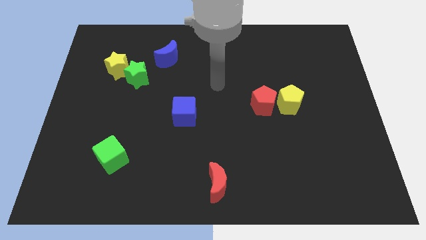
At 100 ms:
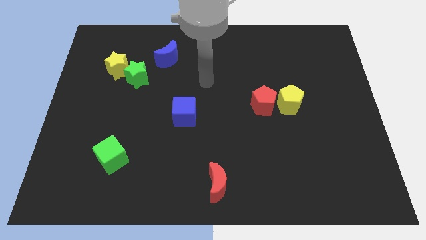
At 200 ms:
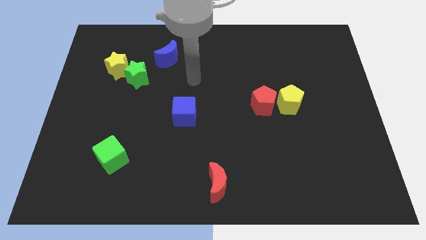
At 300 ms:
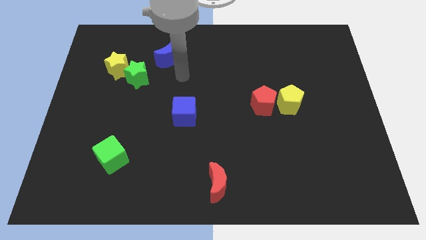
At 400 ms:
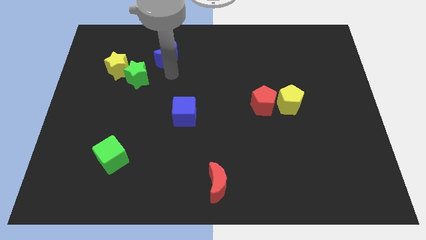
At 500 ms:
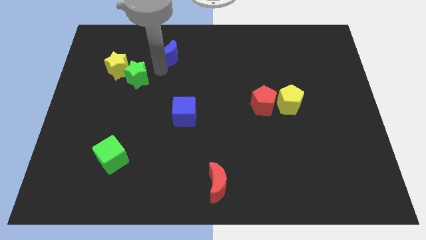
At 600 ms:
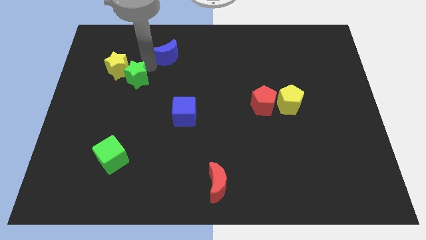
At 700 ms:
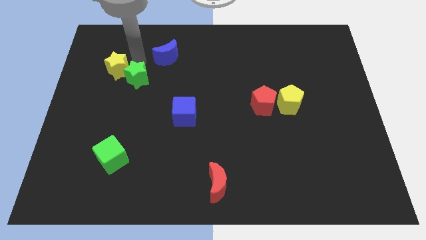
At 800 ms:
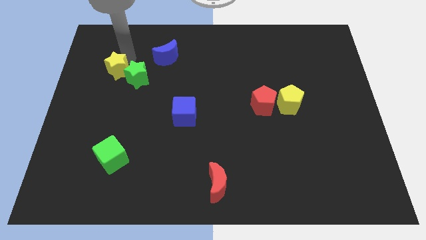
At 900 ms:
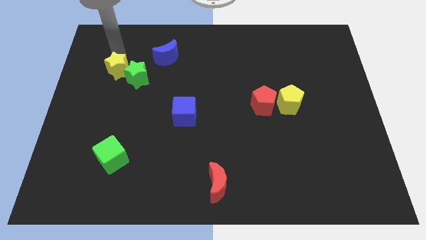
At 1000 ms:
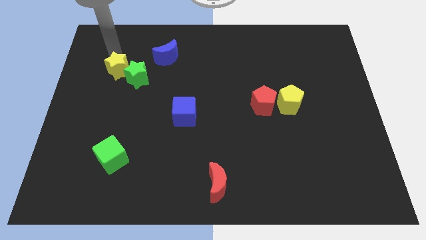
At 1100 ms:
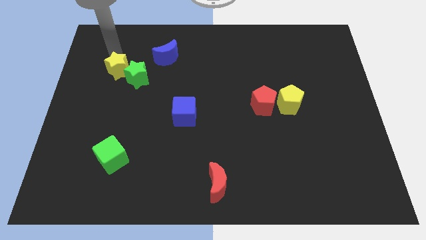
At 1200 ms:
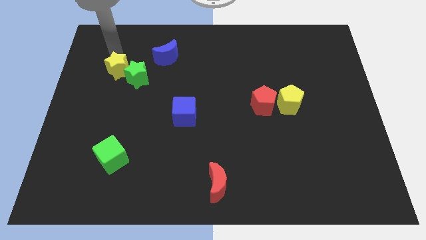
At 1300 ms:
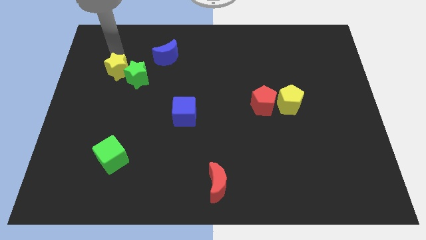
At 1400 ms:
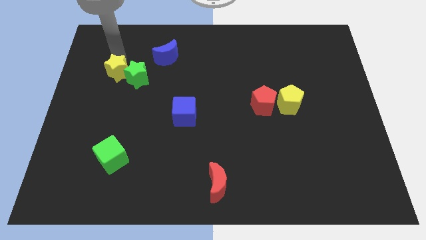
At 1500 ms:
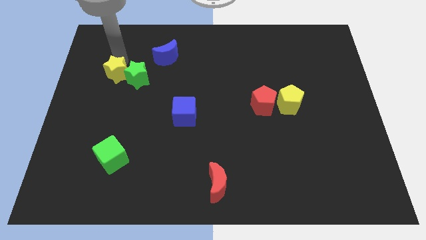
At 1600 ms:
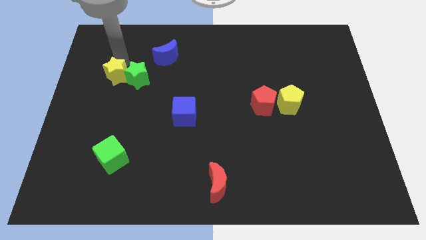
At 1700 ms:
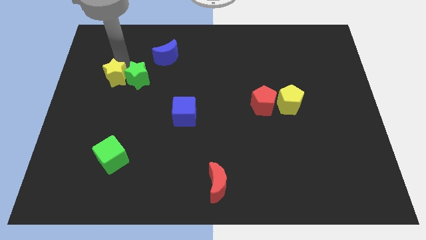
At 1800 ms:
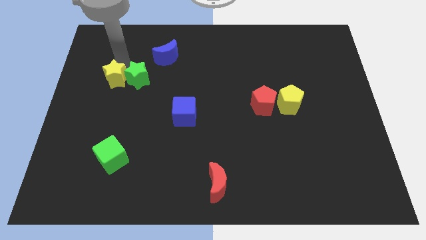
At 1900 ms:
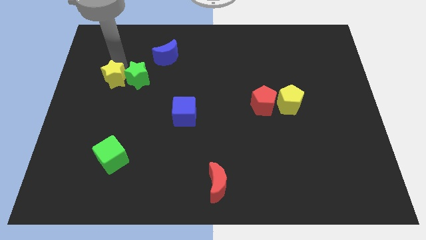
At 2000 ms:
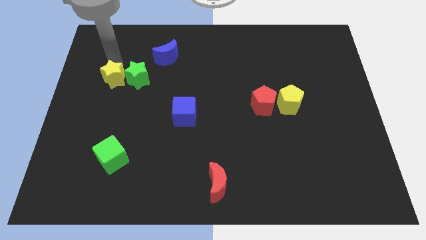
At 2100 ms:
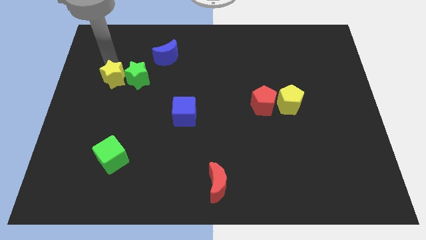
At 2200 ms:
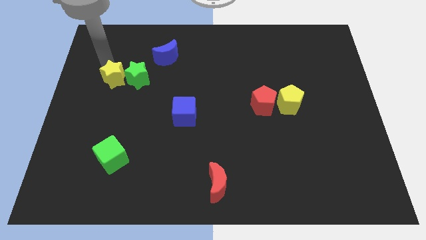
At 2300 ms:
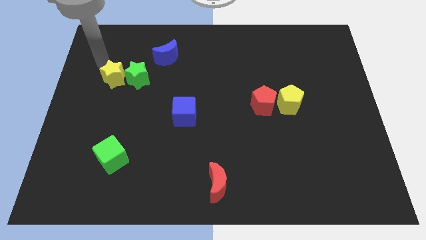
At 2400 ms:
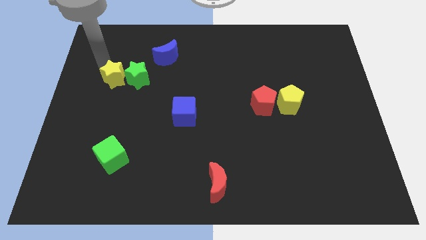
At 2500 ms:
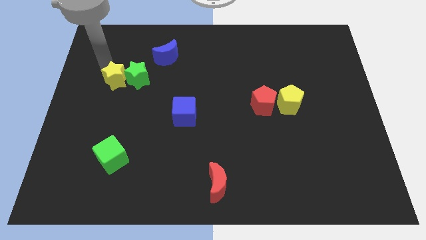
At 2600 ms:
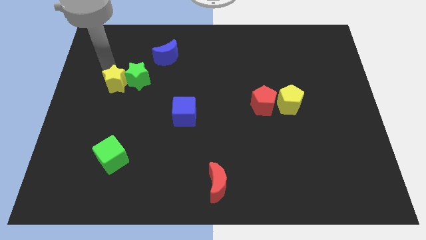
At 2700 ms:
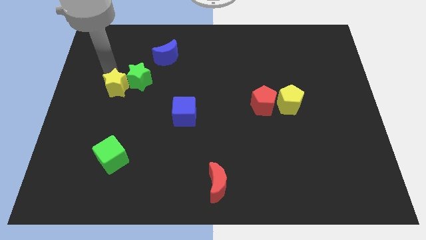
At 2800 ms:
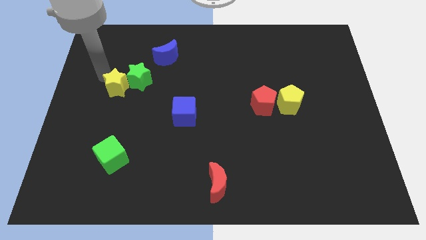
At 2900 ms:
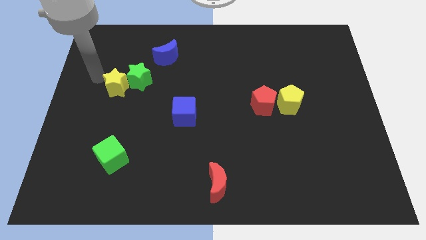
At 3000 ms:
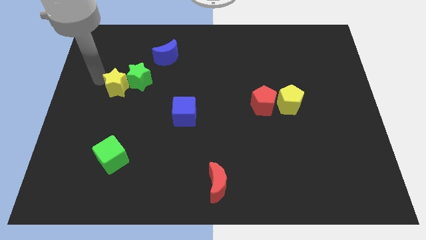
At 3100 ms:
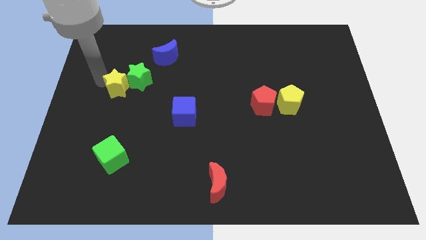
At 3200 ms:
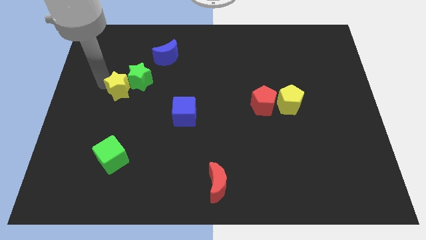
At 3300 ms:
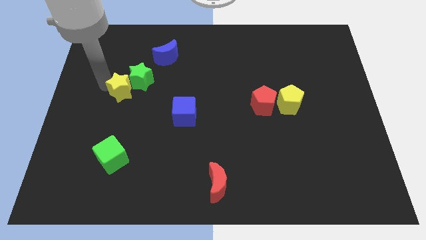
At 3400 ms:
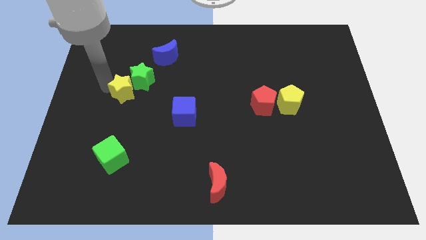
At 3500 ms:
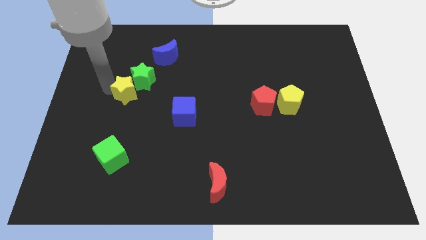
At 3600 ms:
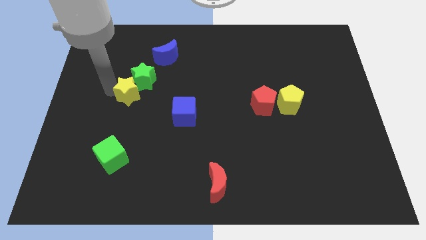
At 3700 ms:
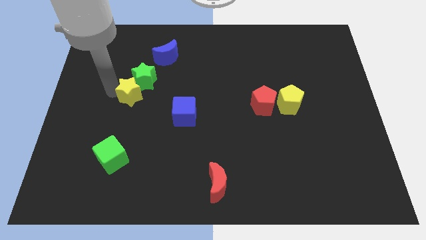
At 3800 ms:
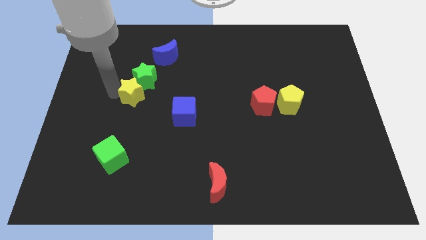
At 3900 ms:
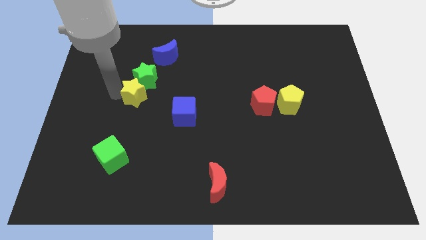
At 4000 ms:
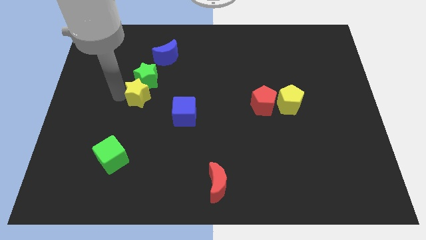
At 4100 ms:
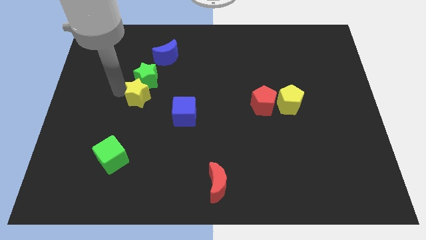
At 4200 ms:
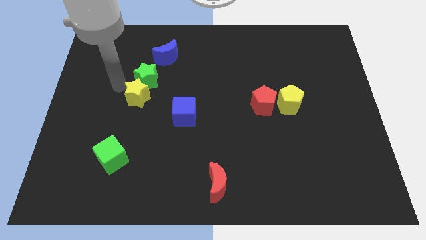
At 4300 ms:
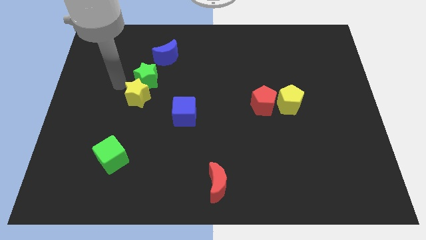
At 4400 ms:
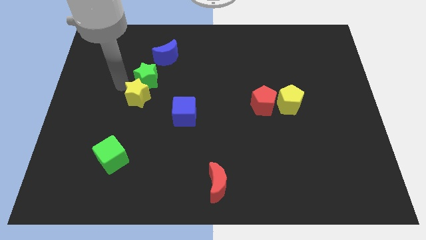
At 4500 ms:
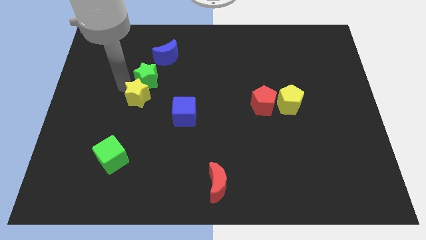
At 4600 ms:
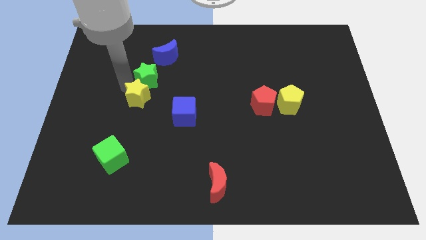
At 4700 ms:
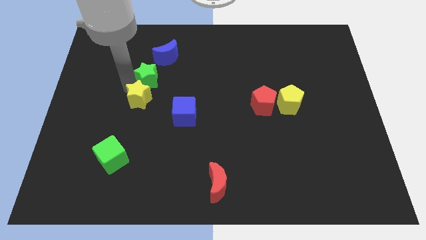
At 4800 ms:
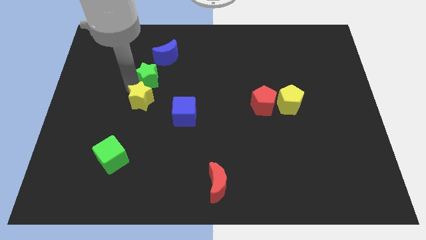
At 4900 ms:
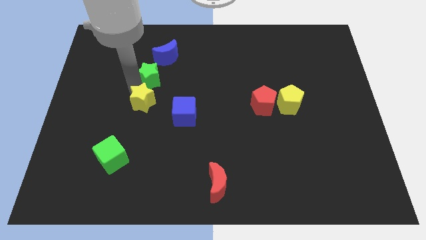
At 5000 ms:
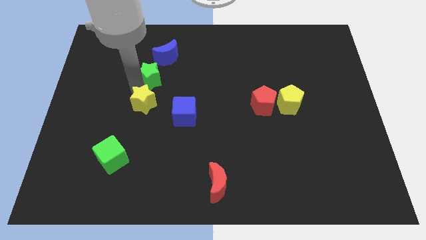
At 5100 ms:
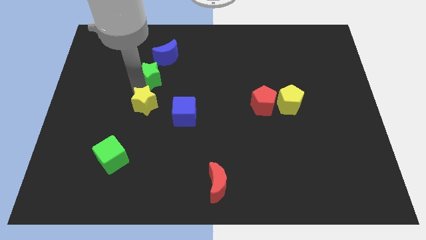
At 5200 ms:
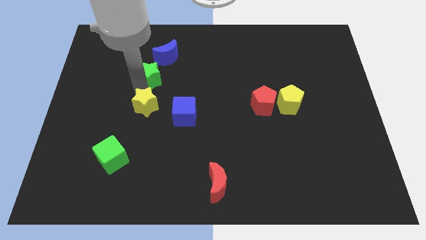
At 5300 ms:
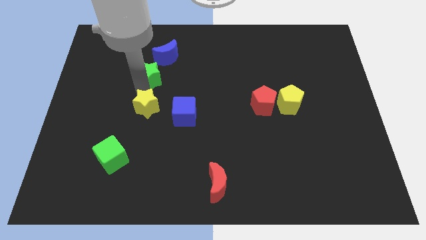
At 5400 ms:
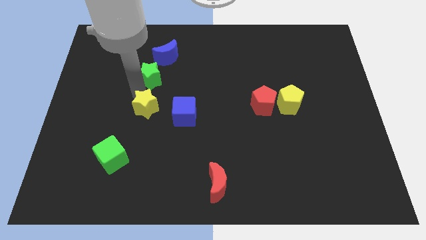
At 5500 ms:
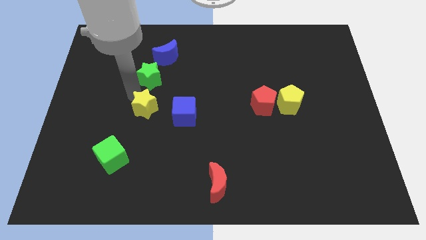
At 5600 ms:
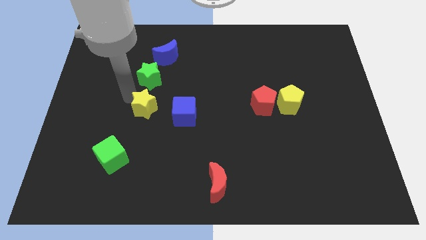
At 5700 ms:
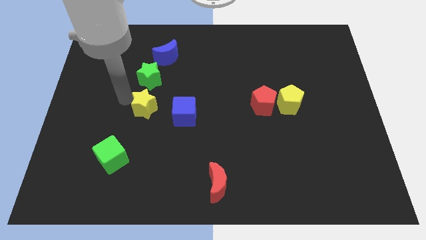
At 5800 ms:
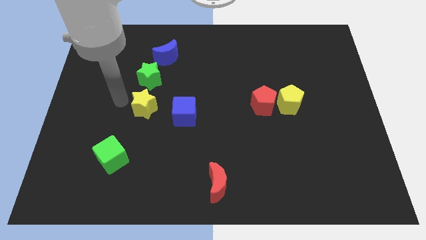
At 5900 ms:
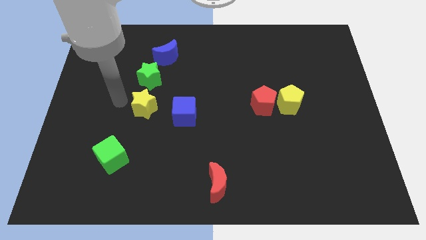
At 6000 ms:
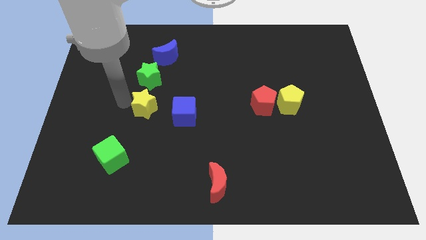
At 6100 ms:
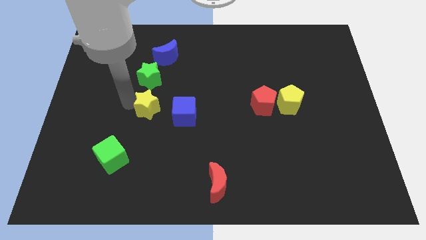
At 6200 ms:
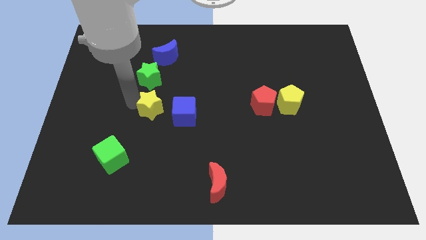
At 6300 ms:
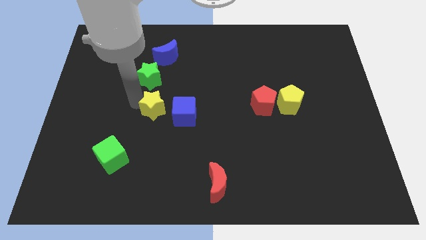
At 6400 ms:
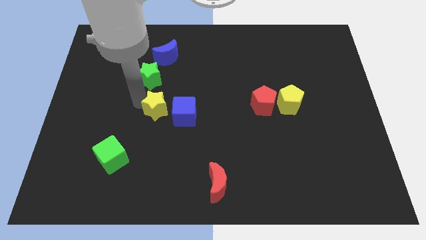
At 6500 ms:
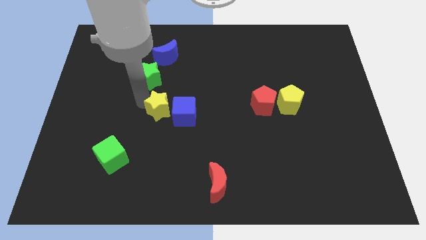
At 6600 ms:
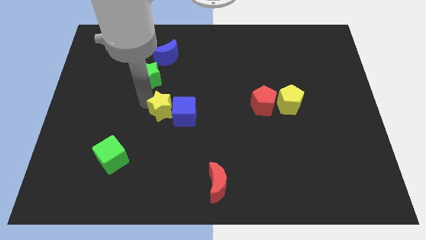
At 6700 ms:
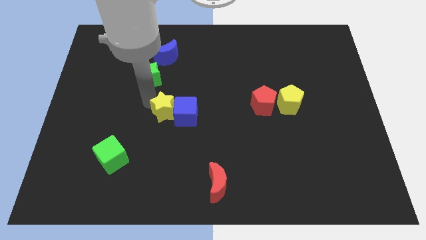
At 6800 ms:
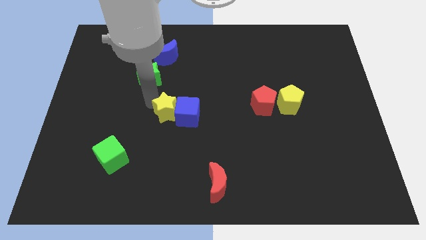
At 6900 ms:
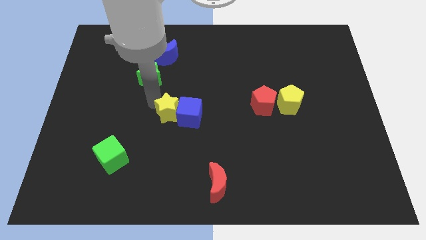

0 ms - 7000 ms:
move the yellow star downwards and right

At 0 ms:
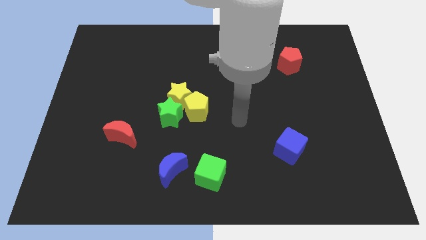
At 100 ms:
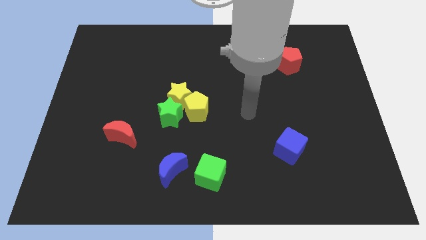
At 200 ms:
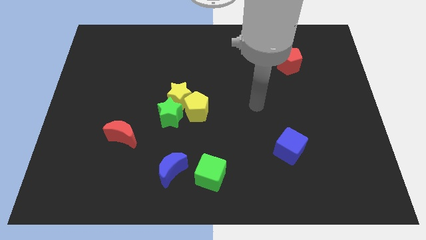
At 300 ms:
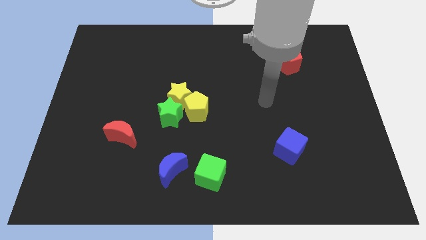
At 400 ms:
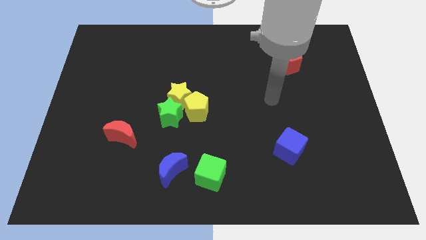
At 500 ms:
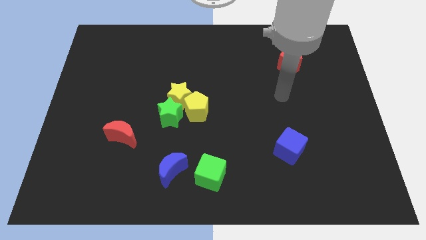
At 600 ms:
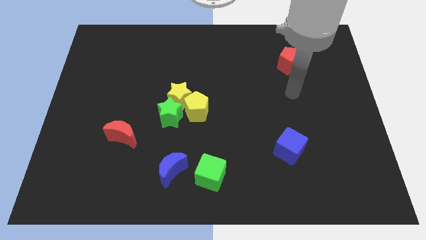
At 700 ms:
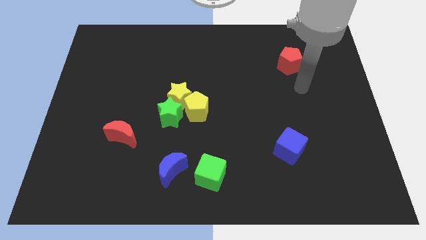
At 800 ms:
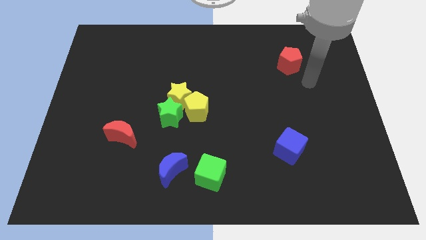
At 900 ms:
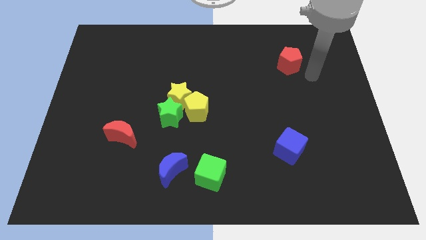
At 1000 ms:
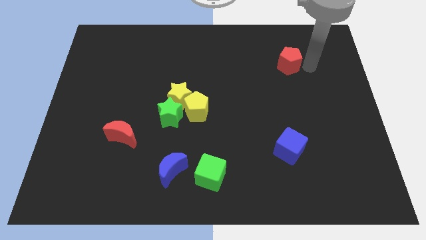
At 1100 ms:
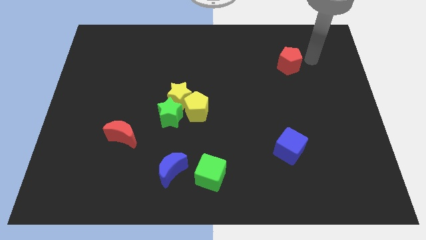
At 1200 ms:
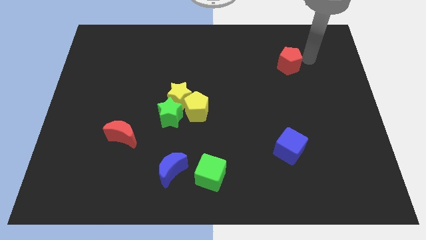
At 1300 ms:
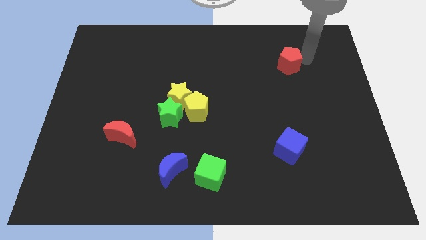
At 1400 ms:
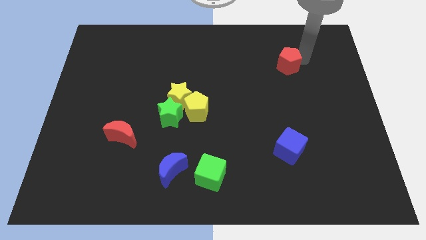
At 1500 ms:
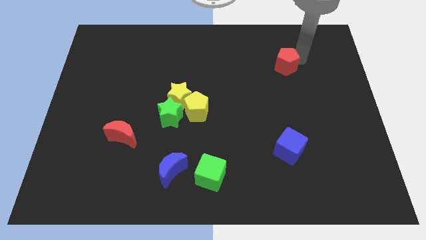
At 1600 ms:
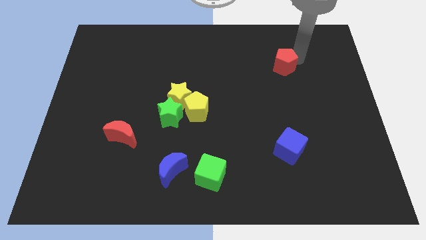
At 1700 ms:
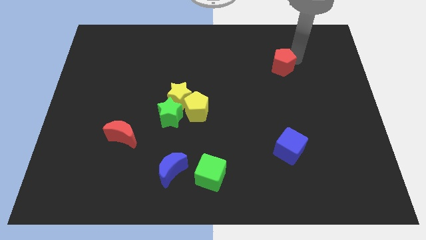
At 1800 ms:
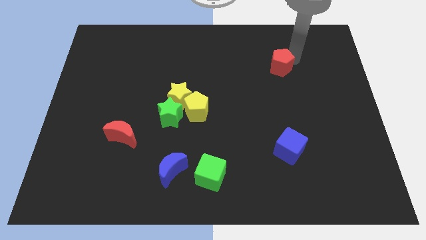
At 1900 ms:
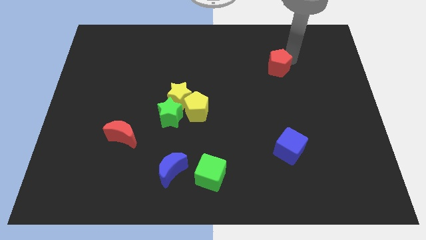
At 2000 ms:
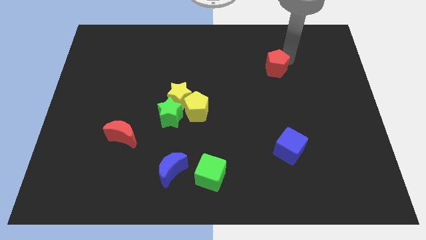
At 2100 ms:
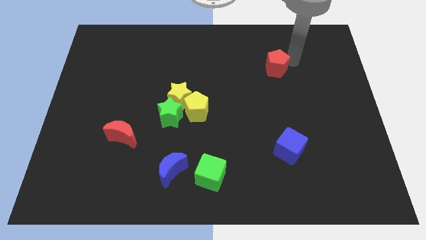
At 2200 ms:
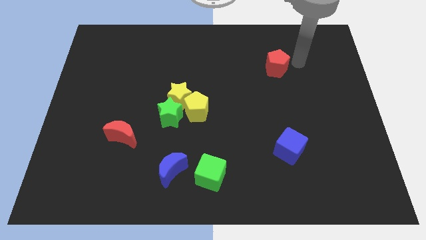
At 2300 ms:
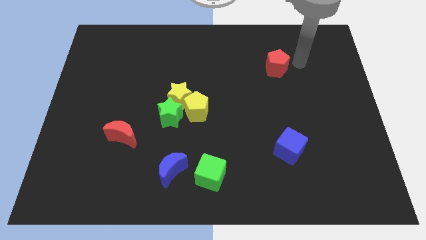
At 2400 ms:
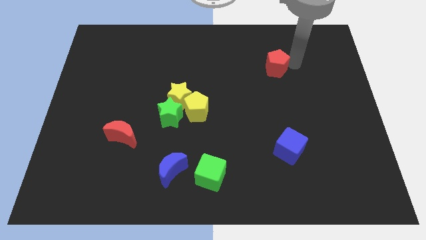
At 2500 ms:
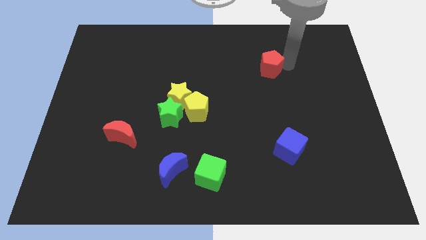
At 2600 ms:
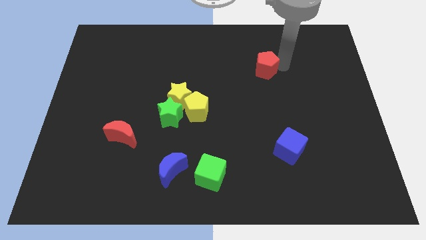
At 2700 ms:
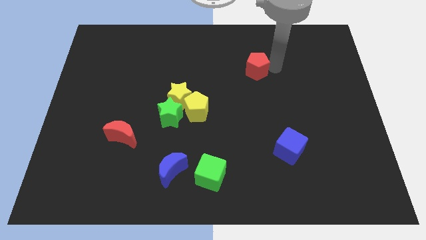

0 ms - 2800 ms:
move the red pentagon a bit to the left
